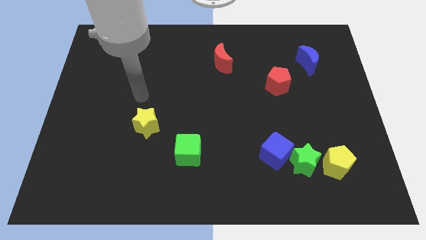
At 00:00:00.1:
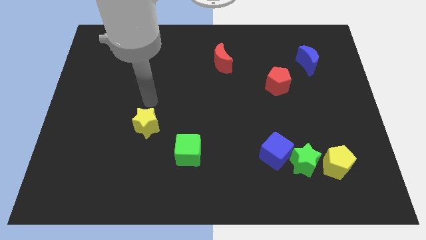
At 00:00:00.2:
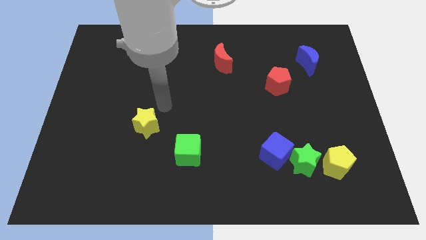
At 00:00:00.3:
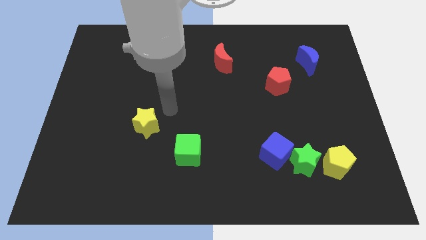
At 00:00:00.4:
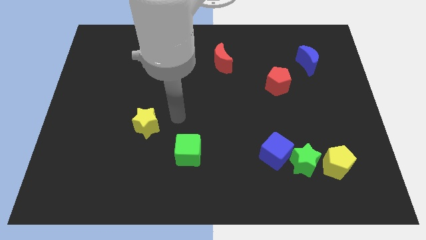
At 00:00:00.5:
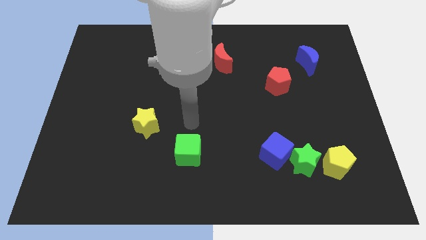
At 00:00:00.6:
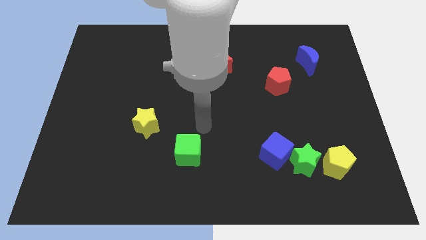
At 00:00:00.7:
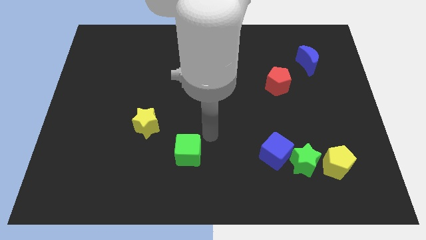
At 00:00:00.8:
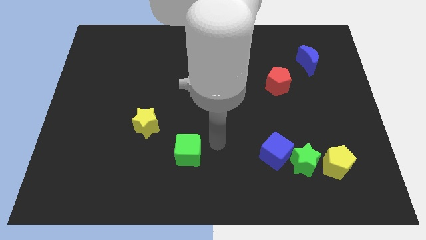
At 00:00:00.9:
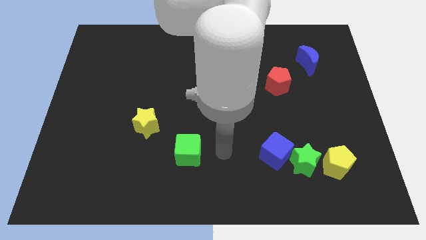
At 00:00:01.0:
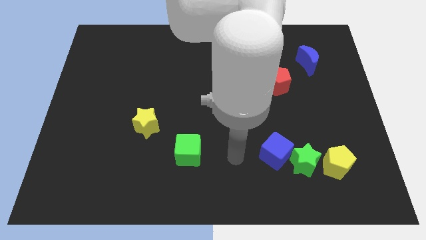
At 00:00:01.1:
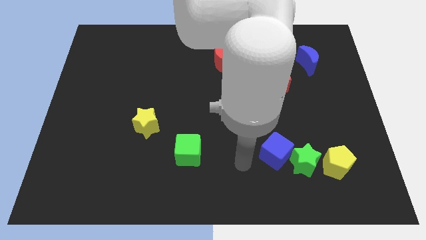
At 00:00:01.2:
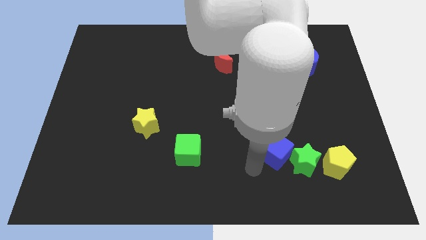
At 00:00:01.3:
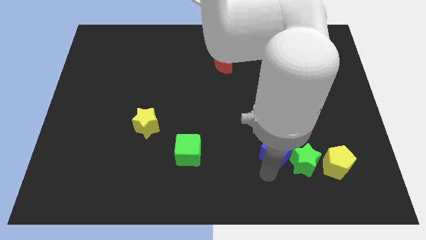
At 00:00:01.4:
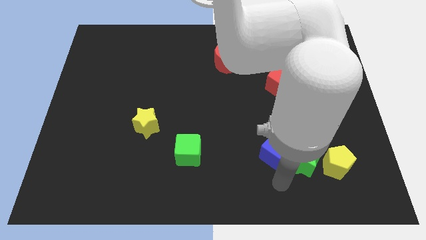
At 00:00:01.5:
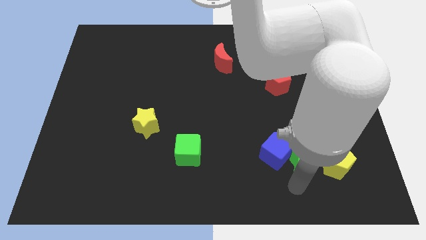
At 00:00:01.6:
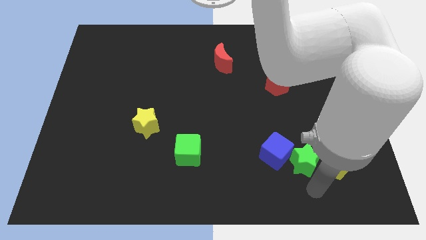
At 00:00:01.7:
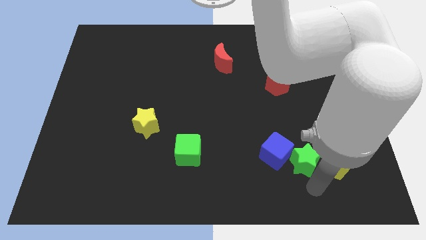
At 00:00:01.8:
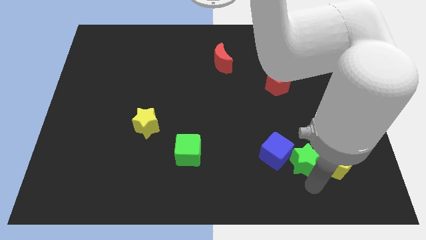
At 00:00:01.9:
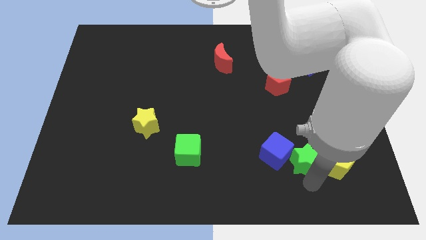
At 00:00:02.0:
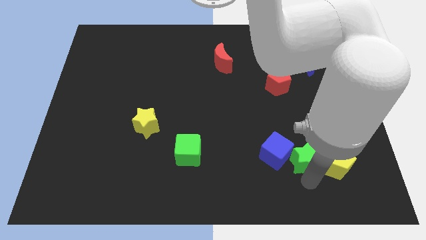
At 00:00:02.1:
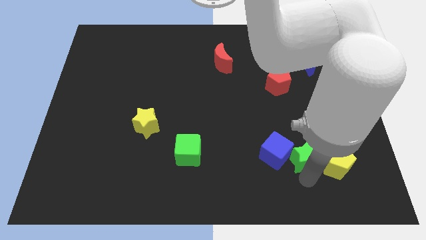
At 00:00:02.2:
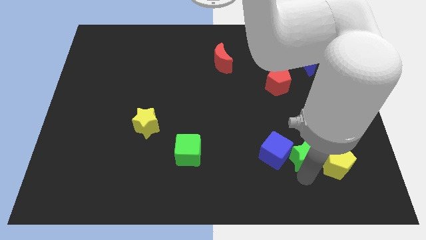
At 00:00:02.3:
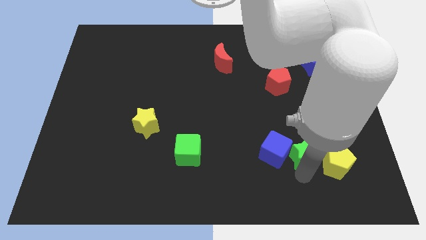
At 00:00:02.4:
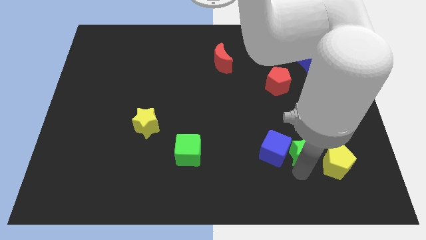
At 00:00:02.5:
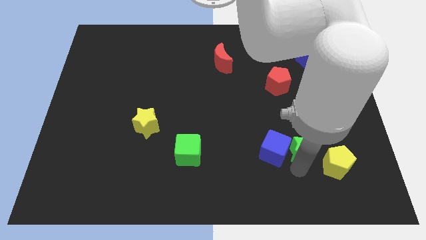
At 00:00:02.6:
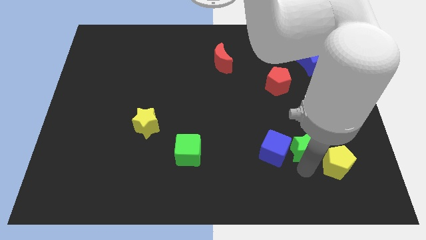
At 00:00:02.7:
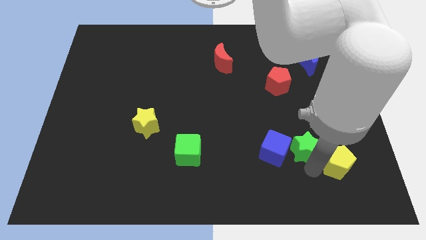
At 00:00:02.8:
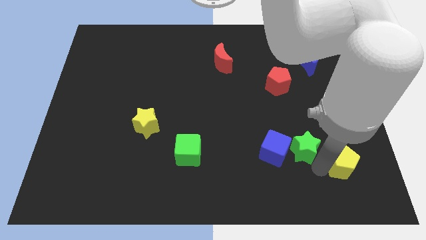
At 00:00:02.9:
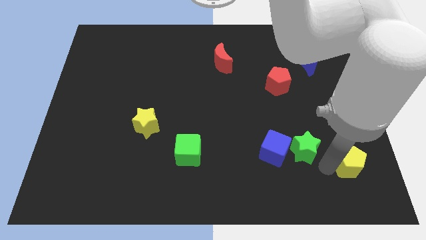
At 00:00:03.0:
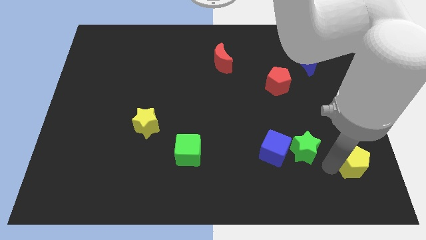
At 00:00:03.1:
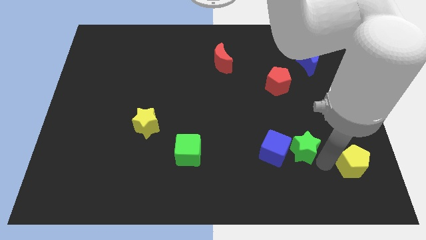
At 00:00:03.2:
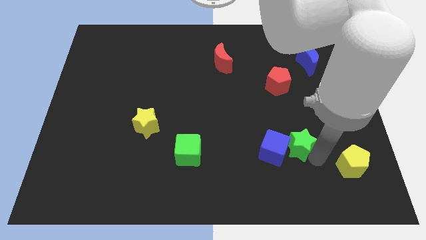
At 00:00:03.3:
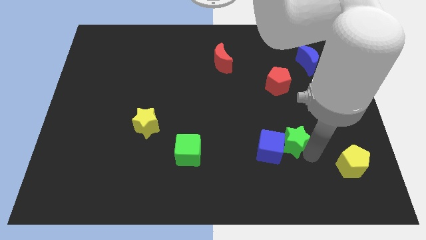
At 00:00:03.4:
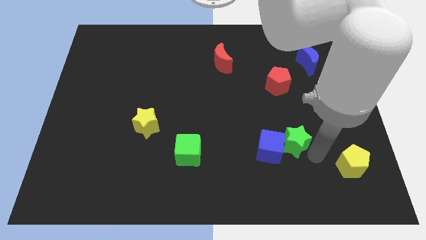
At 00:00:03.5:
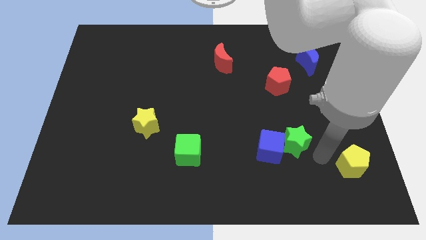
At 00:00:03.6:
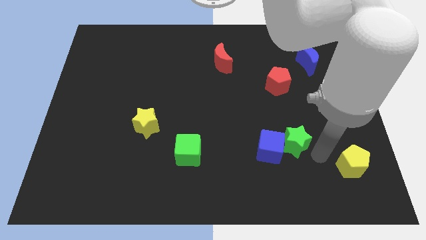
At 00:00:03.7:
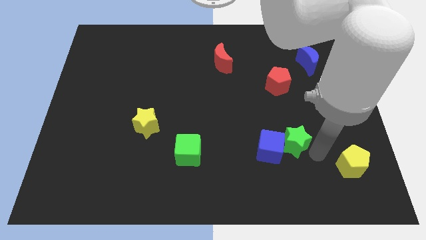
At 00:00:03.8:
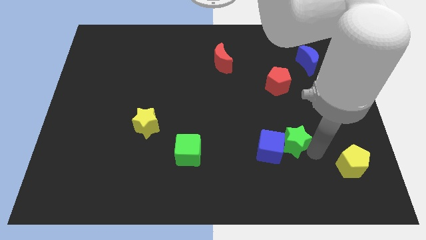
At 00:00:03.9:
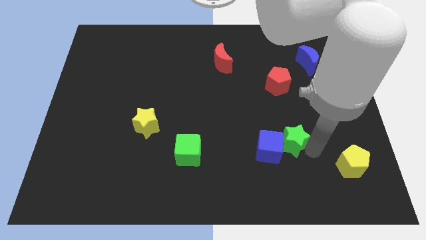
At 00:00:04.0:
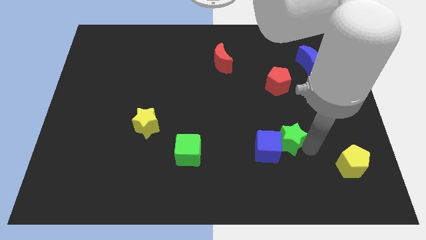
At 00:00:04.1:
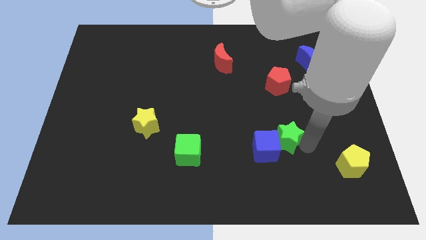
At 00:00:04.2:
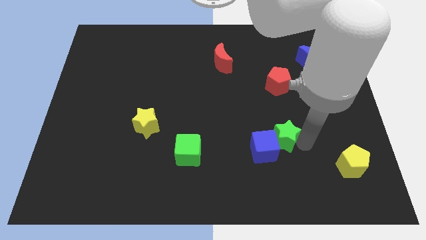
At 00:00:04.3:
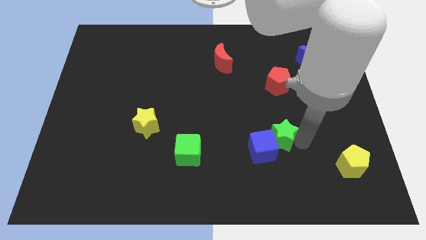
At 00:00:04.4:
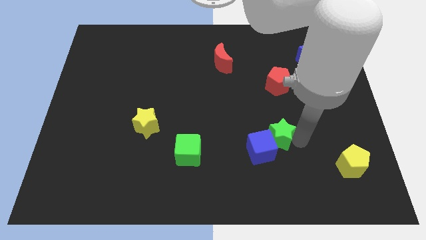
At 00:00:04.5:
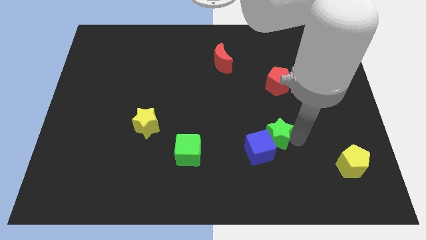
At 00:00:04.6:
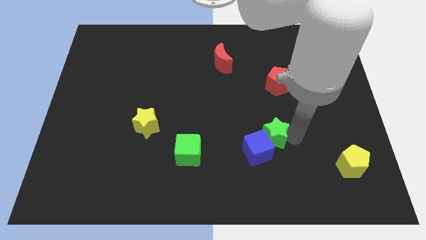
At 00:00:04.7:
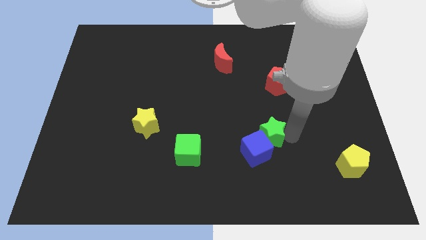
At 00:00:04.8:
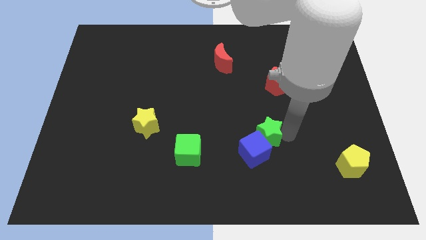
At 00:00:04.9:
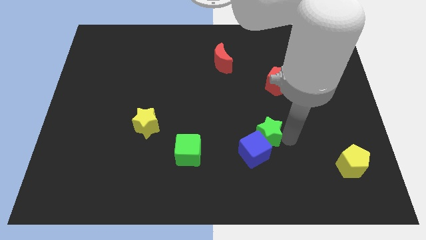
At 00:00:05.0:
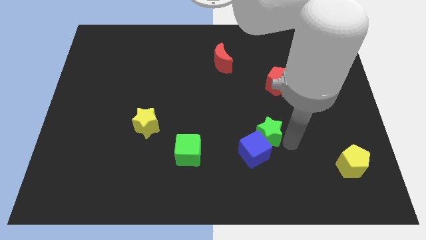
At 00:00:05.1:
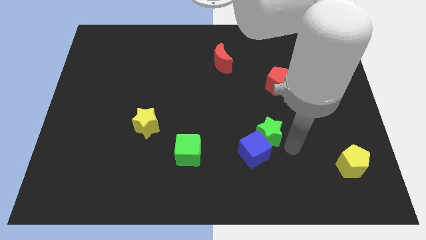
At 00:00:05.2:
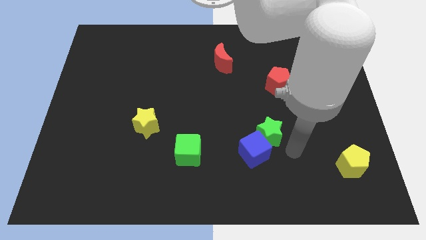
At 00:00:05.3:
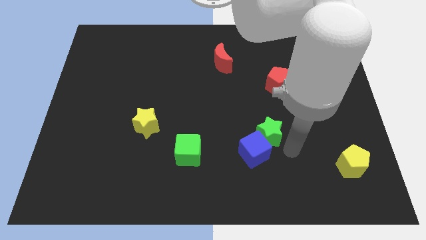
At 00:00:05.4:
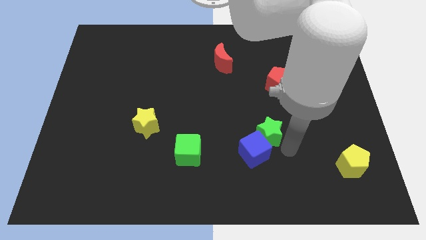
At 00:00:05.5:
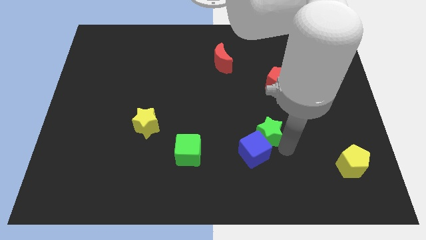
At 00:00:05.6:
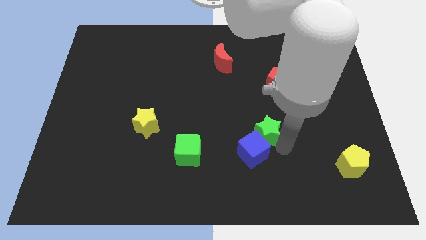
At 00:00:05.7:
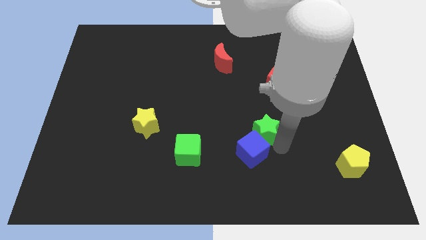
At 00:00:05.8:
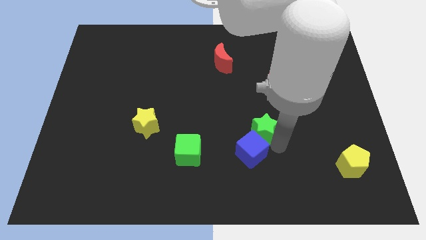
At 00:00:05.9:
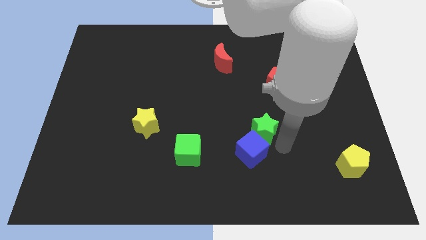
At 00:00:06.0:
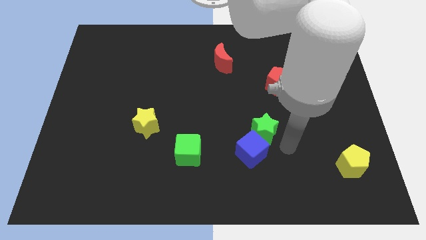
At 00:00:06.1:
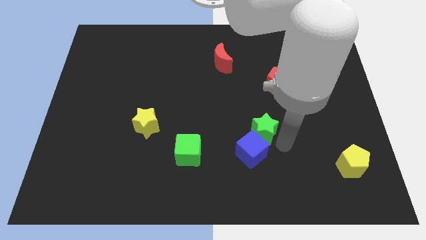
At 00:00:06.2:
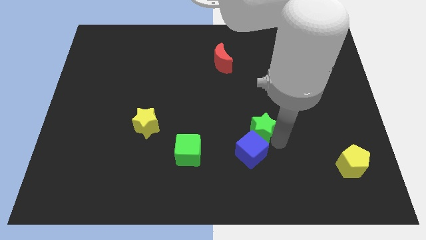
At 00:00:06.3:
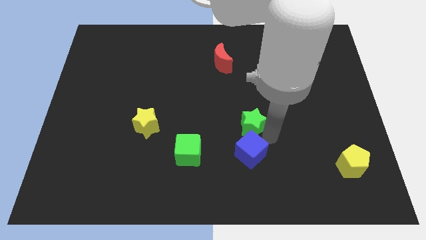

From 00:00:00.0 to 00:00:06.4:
slide the green star to the middle of the board

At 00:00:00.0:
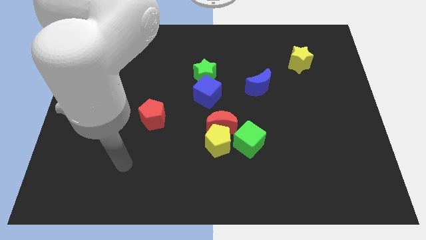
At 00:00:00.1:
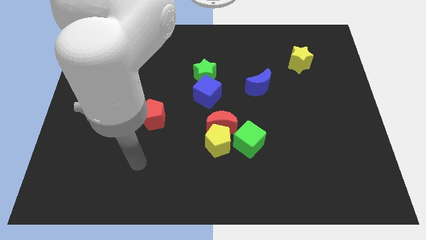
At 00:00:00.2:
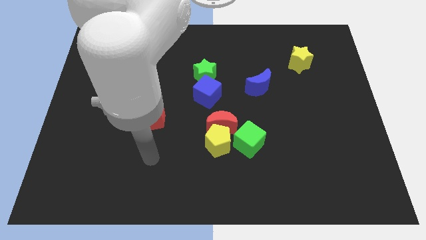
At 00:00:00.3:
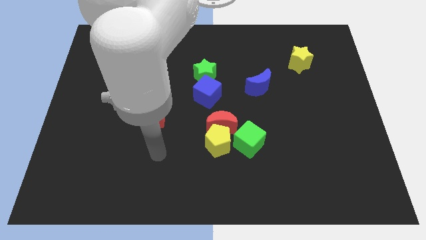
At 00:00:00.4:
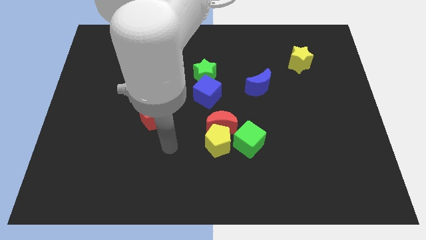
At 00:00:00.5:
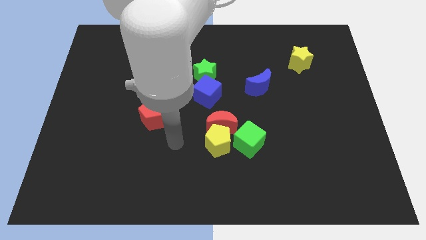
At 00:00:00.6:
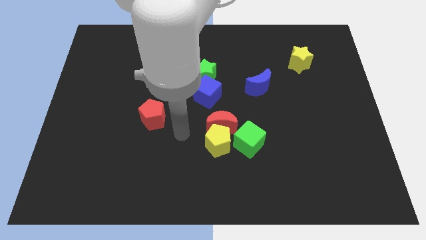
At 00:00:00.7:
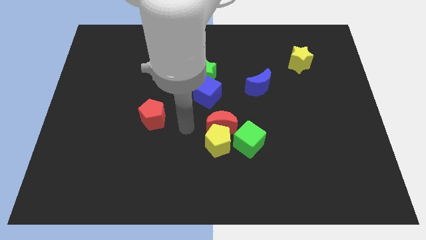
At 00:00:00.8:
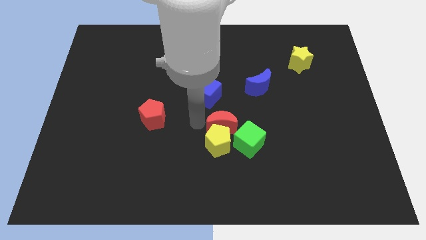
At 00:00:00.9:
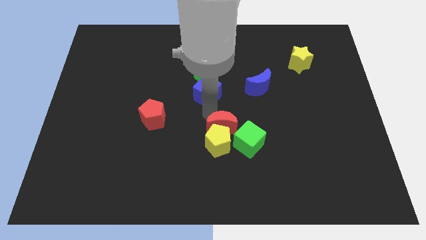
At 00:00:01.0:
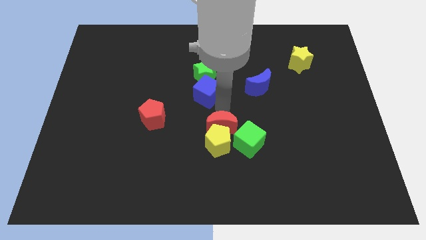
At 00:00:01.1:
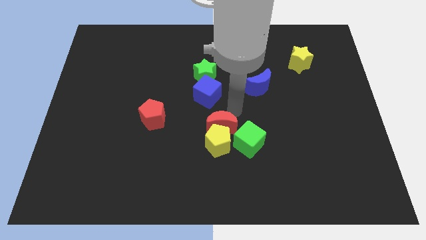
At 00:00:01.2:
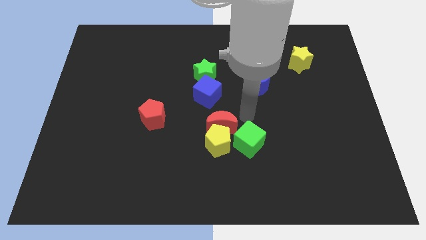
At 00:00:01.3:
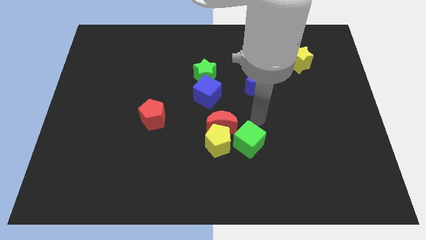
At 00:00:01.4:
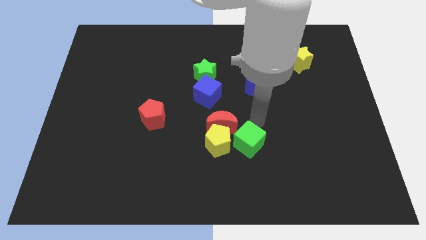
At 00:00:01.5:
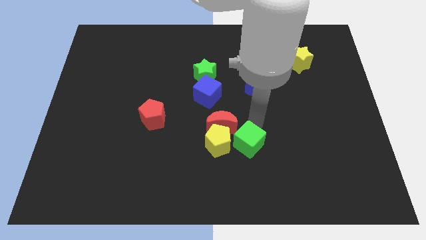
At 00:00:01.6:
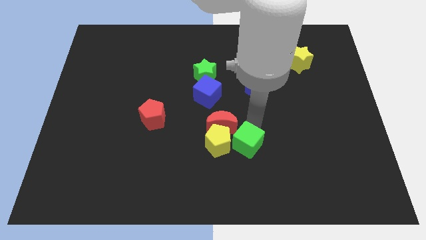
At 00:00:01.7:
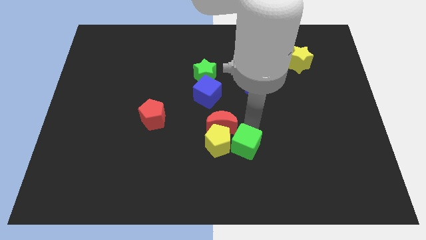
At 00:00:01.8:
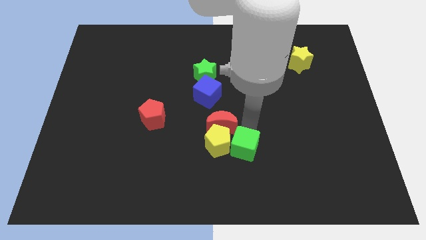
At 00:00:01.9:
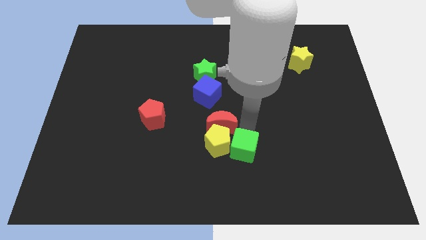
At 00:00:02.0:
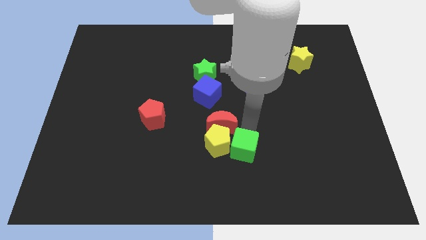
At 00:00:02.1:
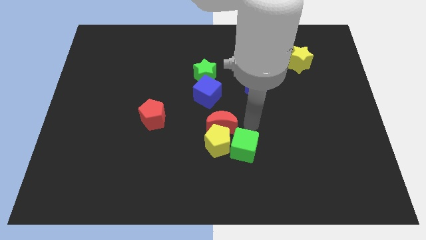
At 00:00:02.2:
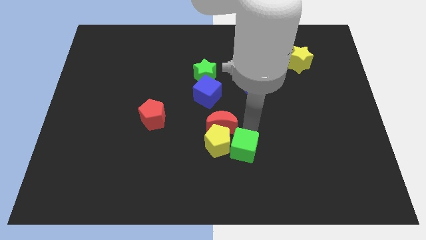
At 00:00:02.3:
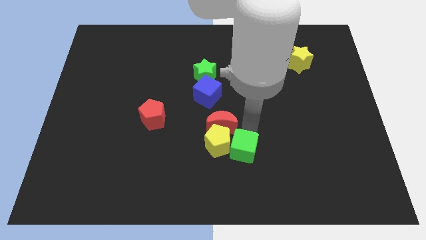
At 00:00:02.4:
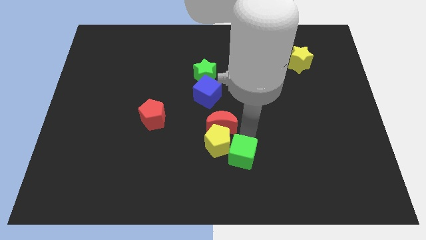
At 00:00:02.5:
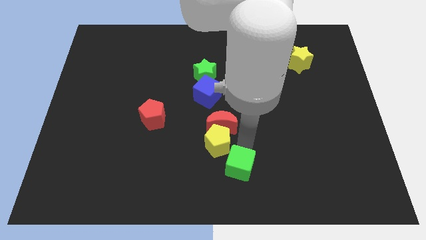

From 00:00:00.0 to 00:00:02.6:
move the green cube to the bottom
